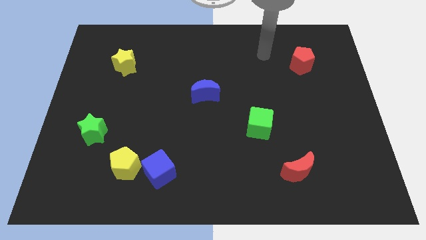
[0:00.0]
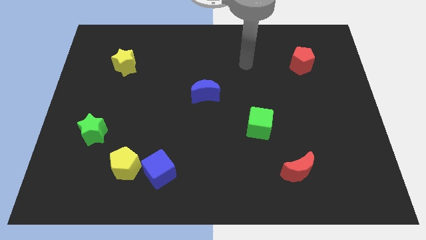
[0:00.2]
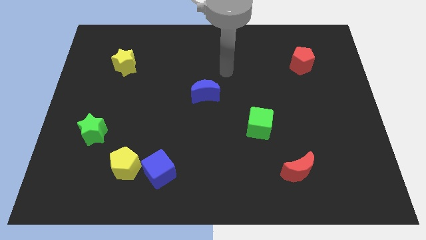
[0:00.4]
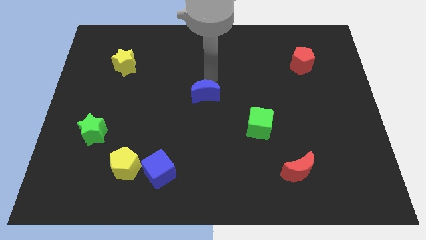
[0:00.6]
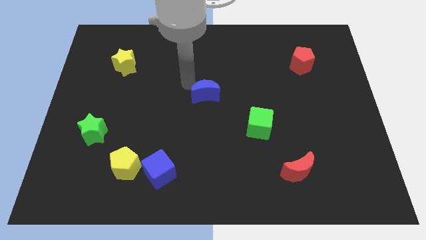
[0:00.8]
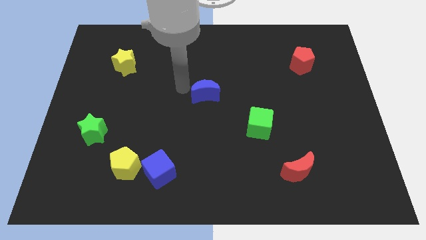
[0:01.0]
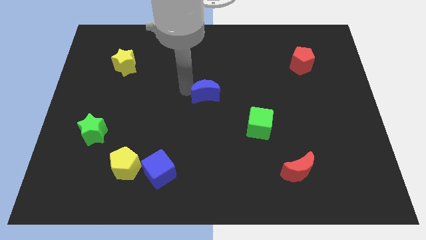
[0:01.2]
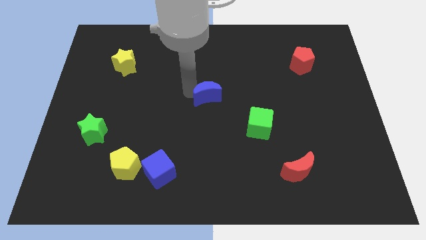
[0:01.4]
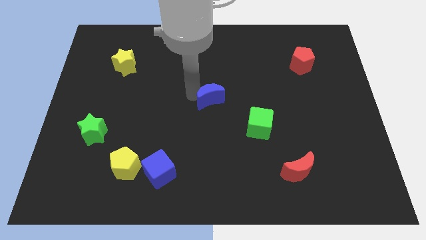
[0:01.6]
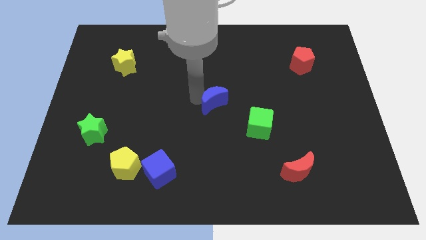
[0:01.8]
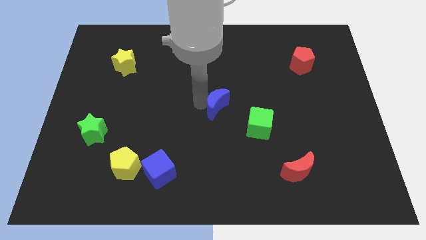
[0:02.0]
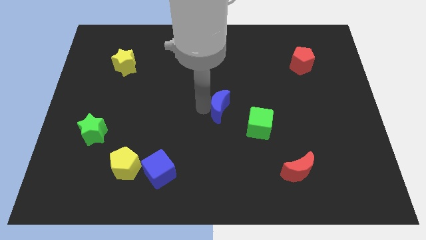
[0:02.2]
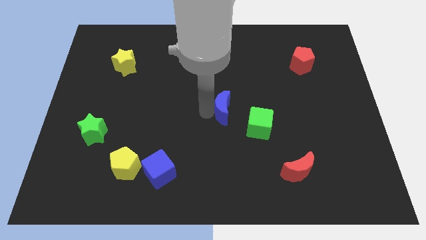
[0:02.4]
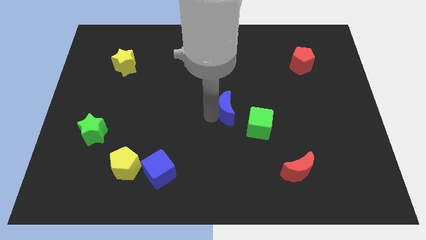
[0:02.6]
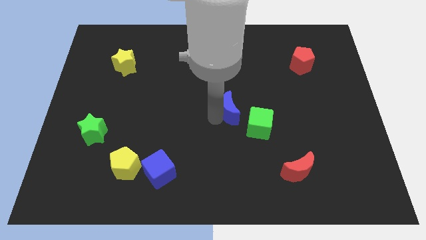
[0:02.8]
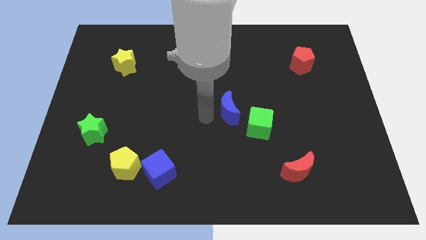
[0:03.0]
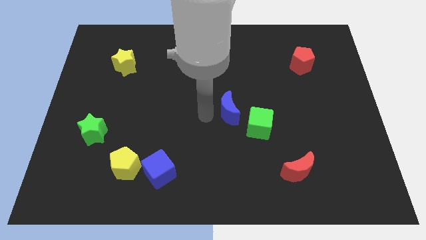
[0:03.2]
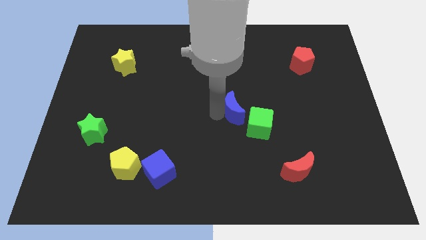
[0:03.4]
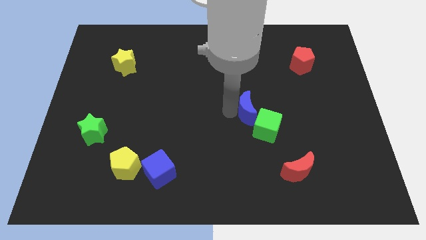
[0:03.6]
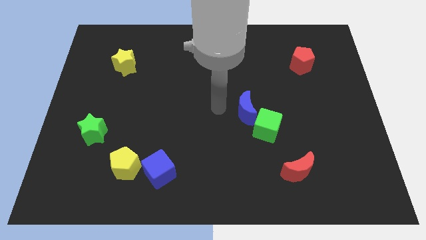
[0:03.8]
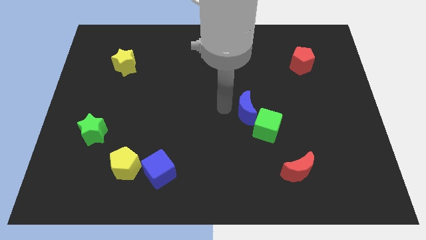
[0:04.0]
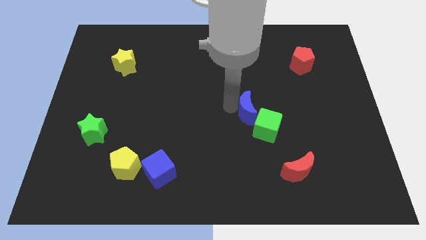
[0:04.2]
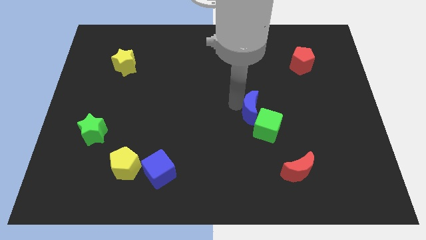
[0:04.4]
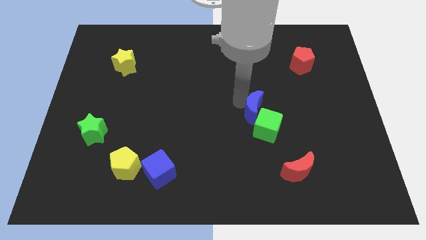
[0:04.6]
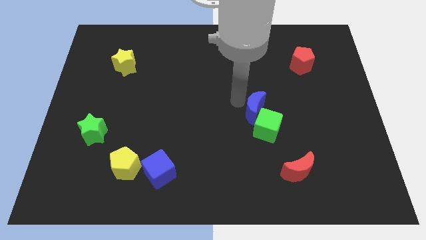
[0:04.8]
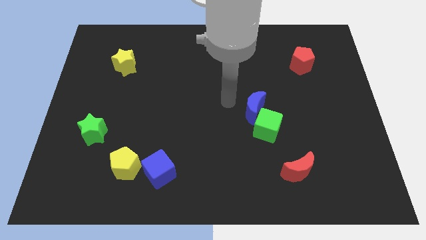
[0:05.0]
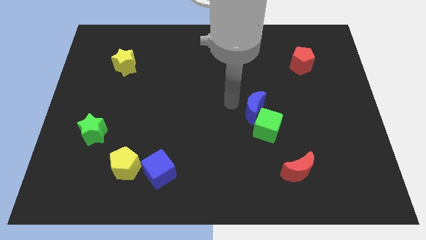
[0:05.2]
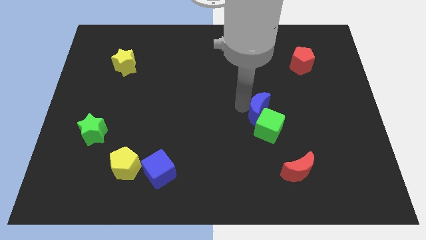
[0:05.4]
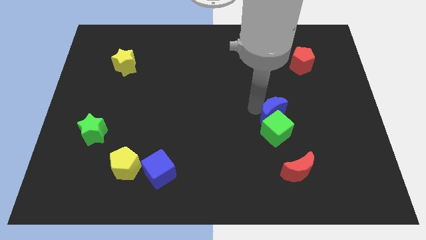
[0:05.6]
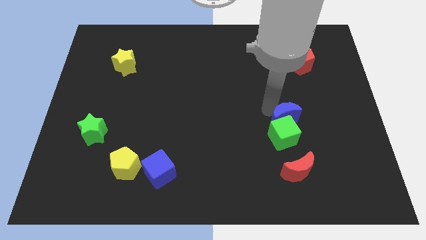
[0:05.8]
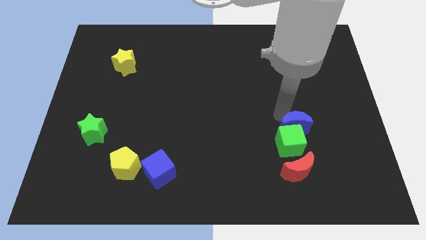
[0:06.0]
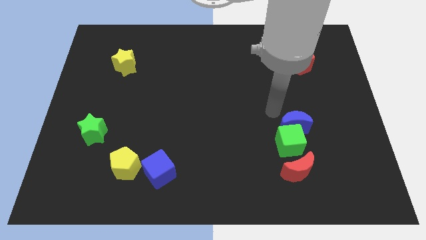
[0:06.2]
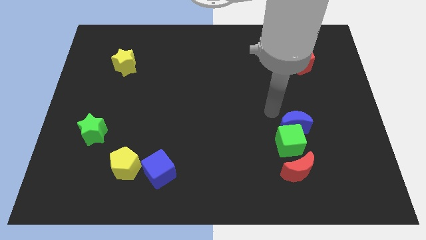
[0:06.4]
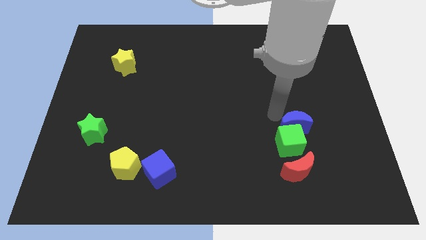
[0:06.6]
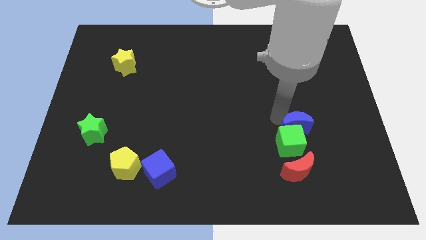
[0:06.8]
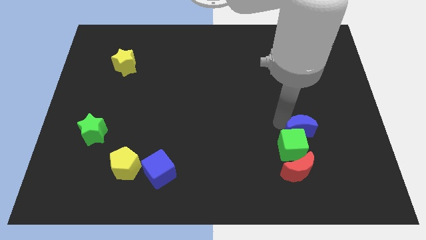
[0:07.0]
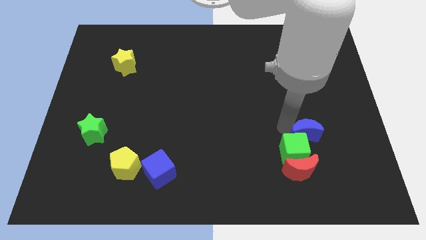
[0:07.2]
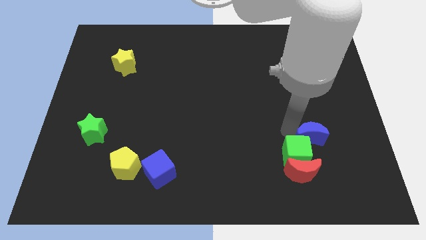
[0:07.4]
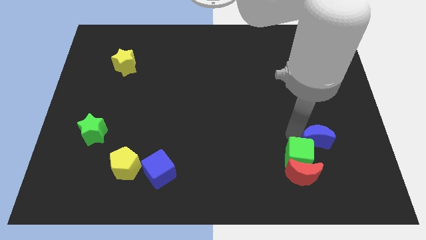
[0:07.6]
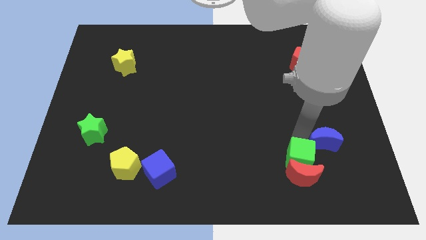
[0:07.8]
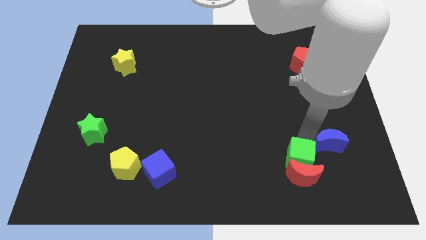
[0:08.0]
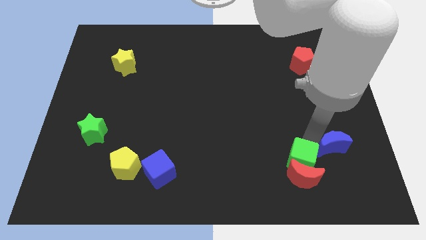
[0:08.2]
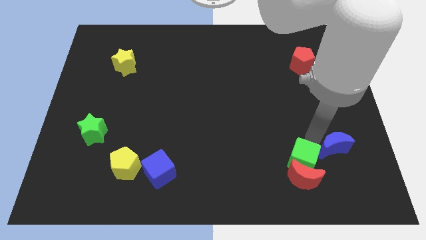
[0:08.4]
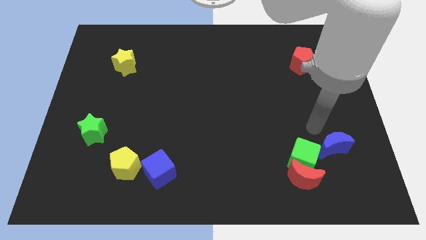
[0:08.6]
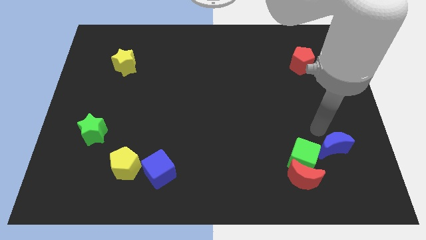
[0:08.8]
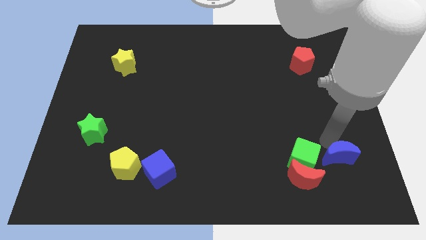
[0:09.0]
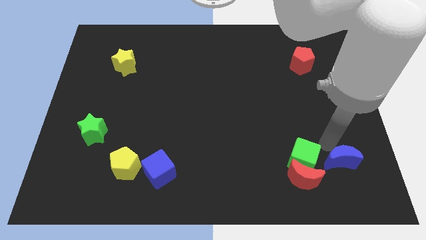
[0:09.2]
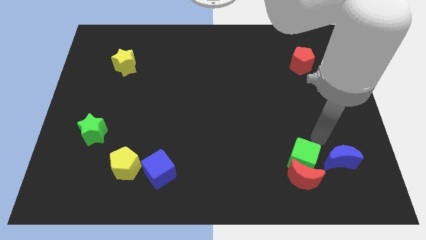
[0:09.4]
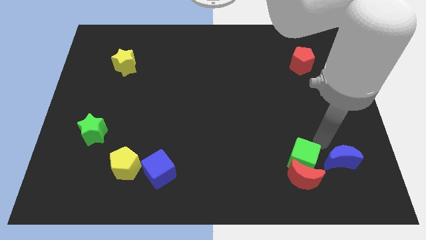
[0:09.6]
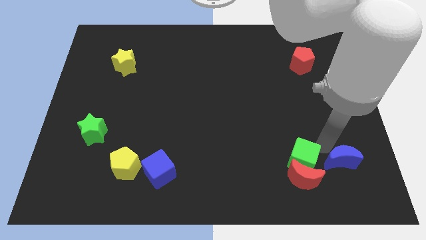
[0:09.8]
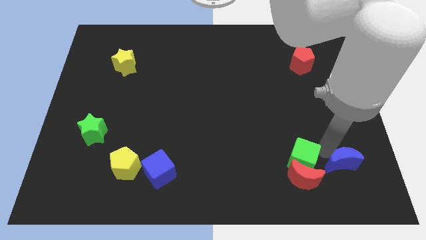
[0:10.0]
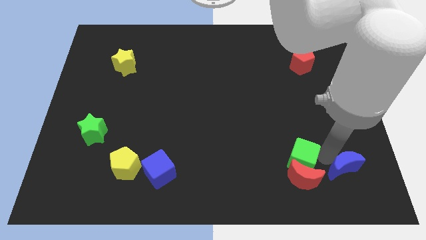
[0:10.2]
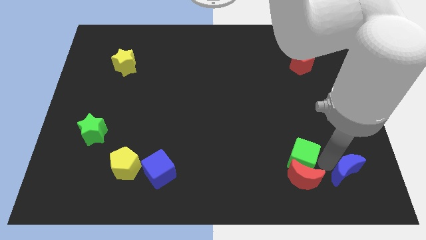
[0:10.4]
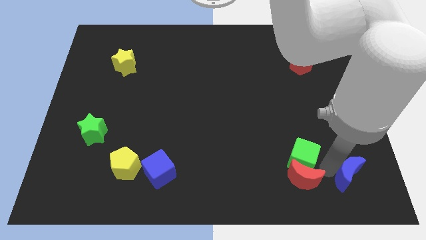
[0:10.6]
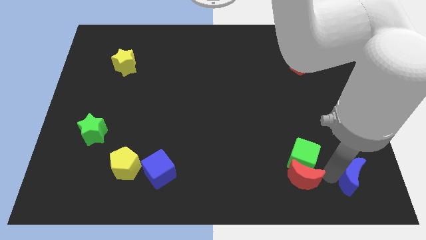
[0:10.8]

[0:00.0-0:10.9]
put the blue moon to the lower right corner

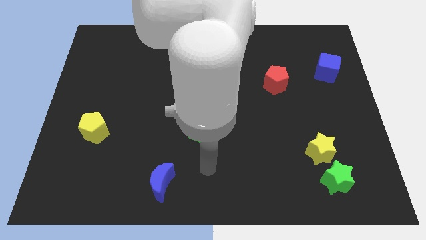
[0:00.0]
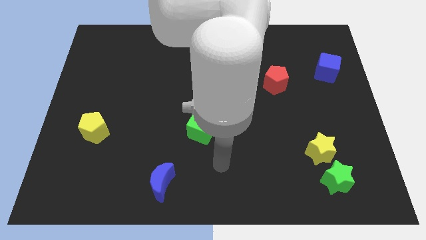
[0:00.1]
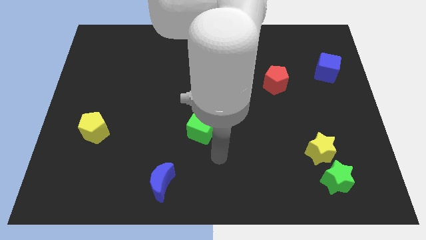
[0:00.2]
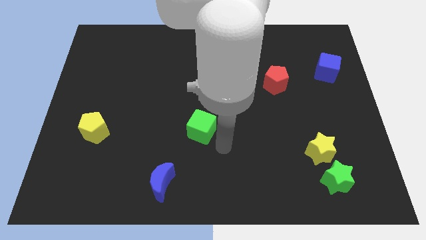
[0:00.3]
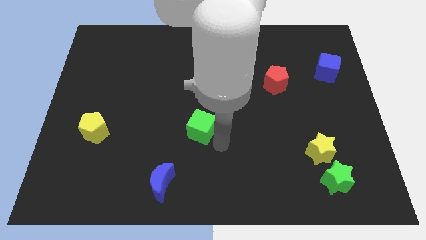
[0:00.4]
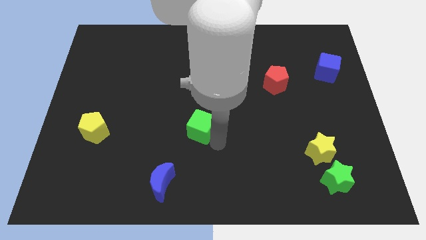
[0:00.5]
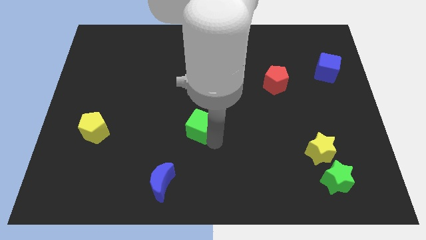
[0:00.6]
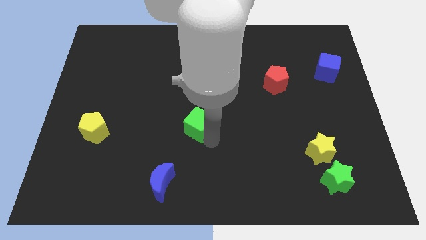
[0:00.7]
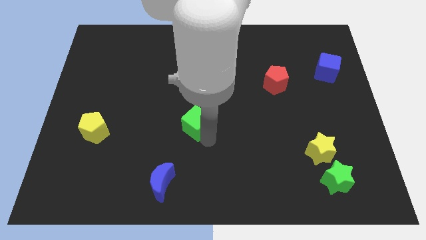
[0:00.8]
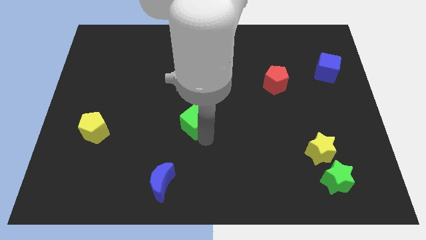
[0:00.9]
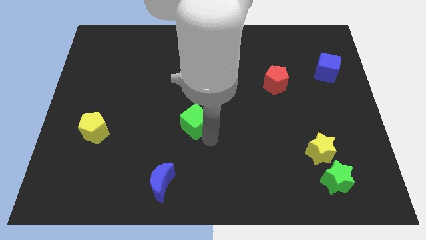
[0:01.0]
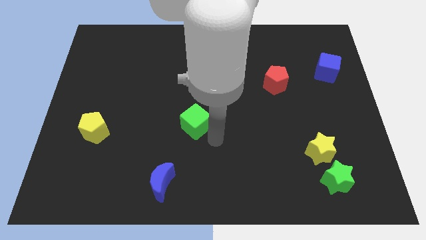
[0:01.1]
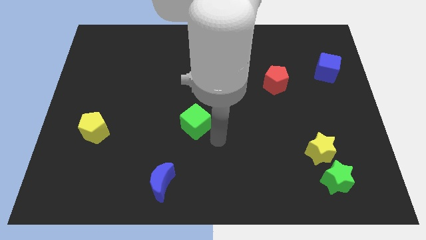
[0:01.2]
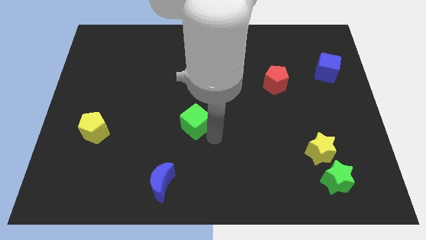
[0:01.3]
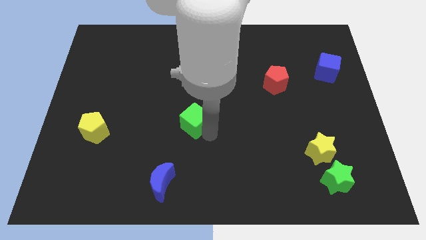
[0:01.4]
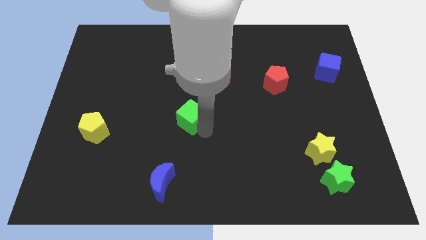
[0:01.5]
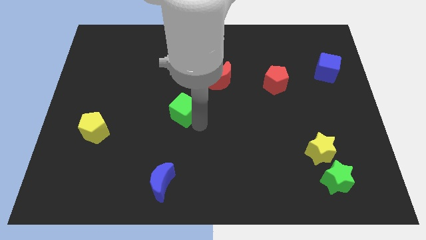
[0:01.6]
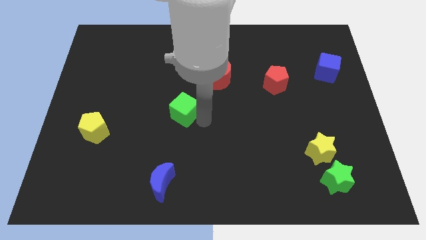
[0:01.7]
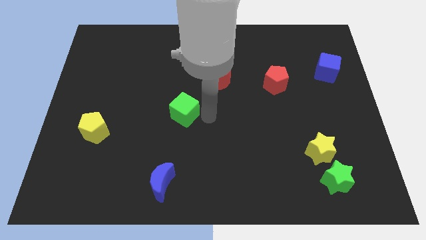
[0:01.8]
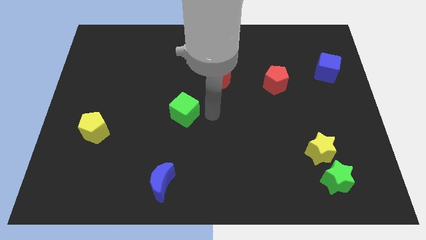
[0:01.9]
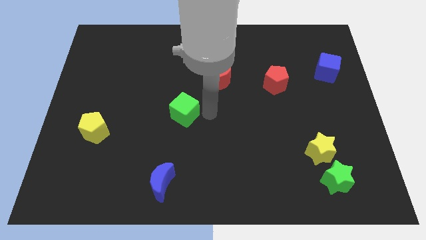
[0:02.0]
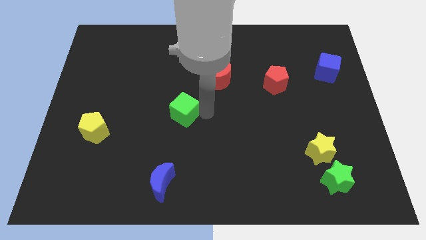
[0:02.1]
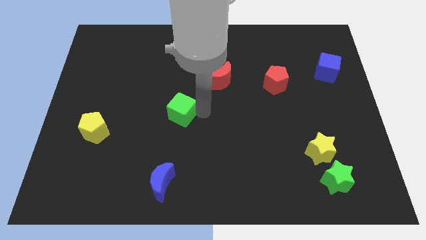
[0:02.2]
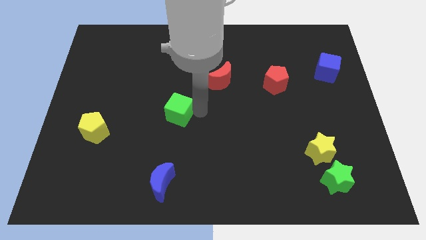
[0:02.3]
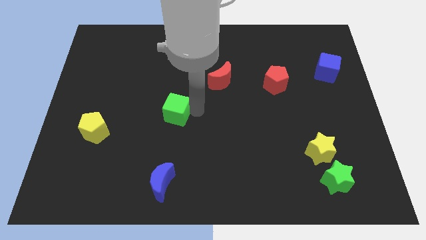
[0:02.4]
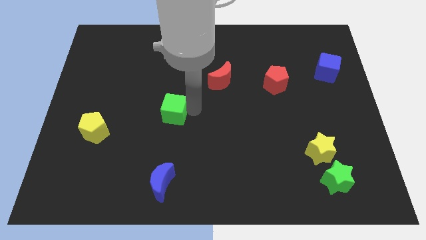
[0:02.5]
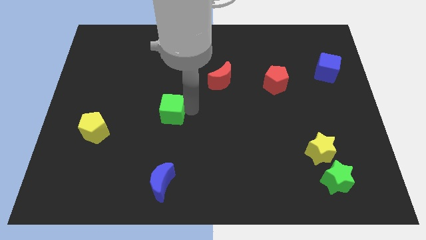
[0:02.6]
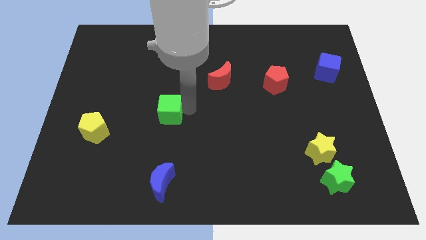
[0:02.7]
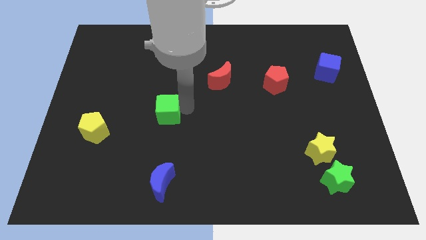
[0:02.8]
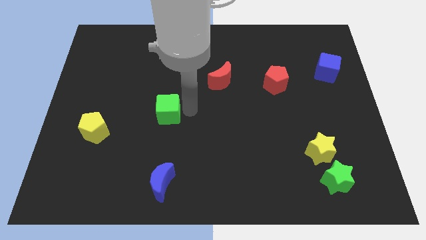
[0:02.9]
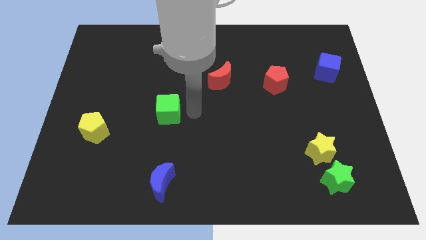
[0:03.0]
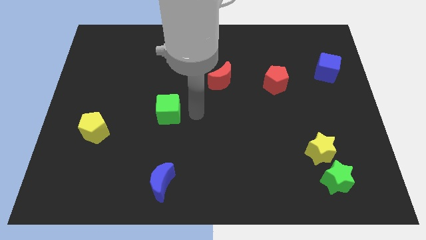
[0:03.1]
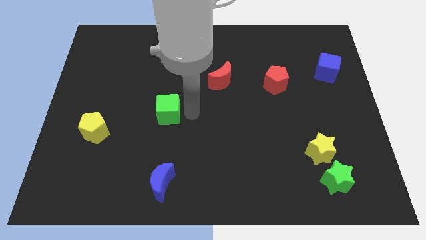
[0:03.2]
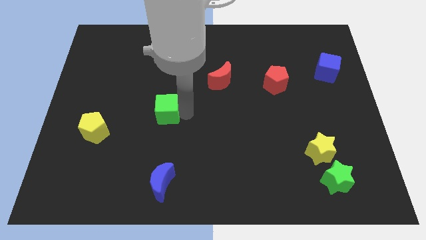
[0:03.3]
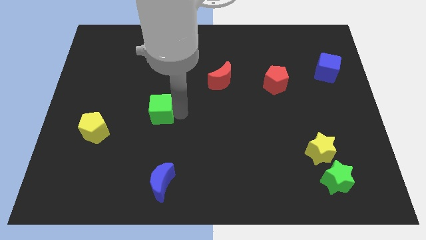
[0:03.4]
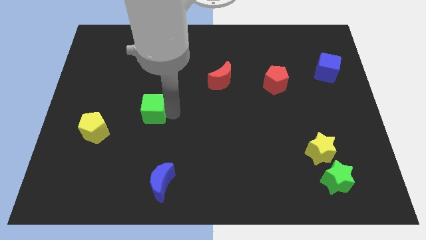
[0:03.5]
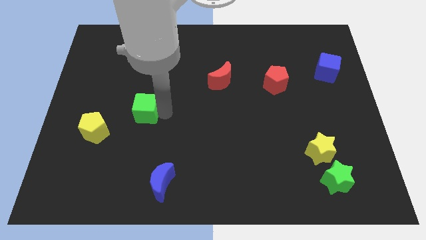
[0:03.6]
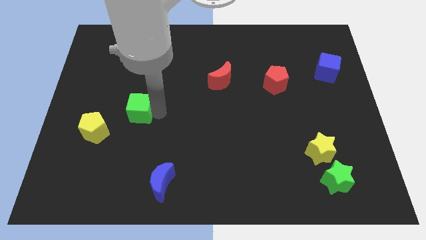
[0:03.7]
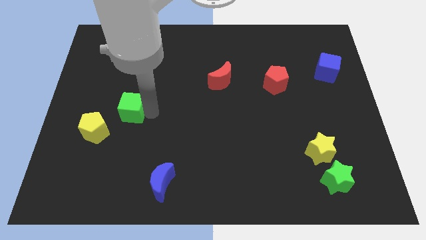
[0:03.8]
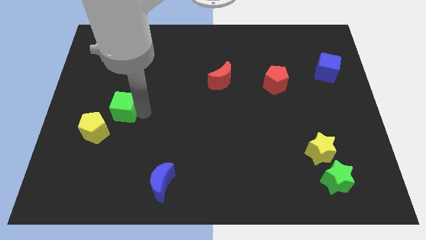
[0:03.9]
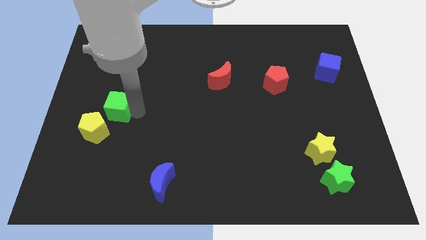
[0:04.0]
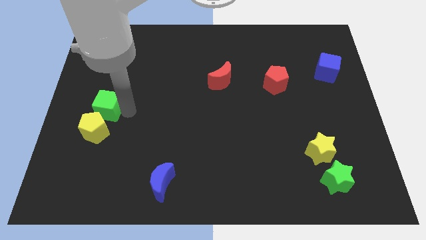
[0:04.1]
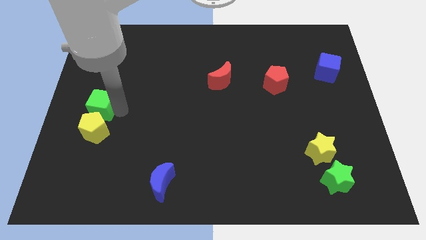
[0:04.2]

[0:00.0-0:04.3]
push the green cube to the center left
